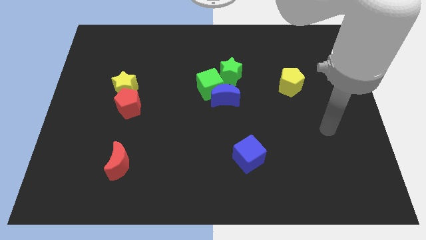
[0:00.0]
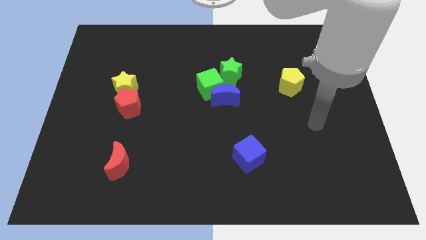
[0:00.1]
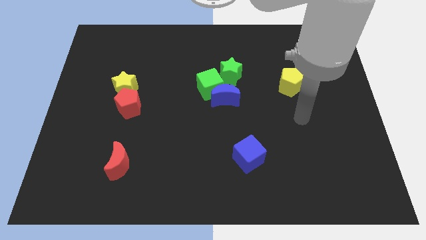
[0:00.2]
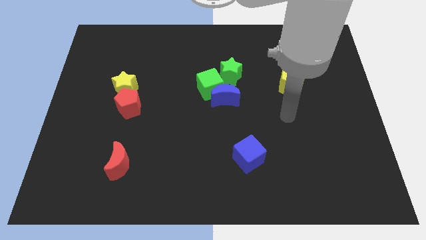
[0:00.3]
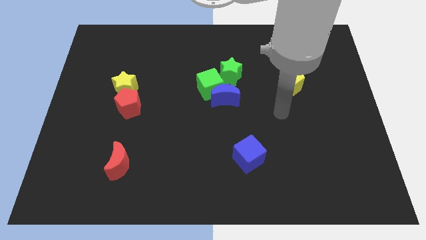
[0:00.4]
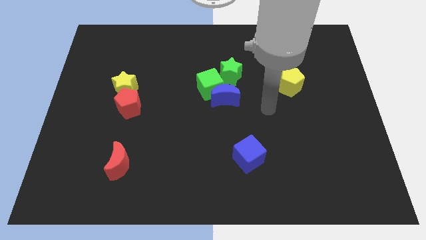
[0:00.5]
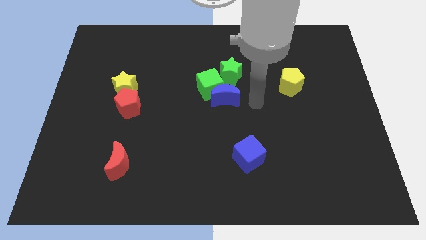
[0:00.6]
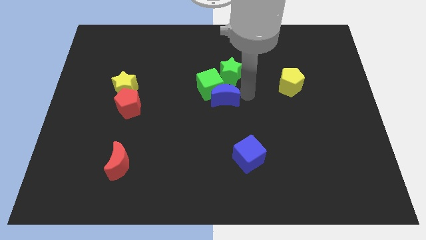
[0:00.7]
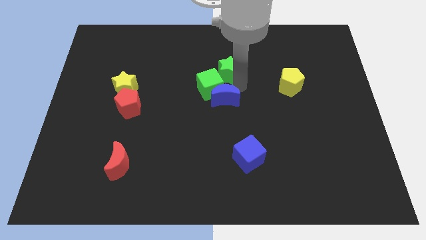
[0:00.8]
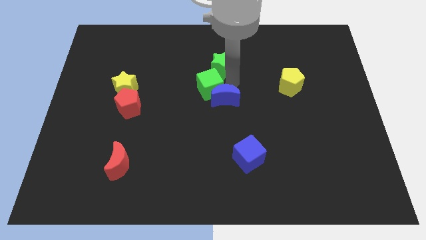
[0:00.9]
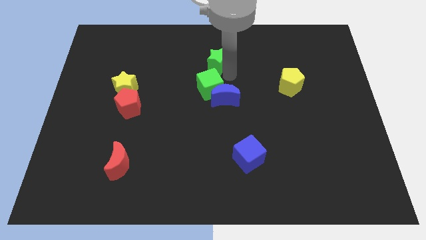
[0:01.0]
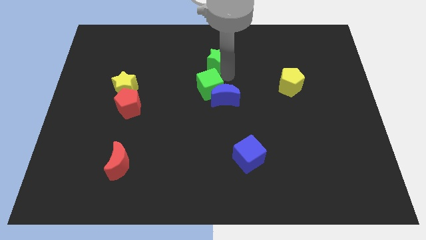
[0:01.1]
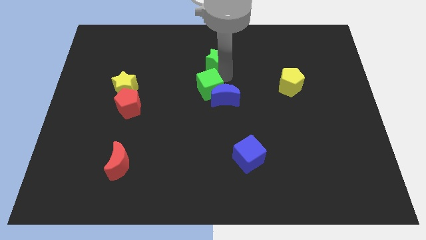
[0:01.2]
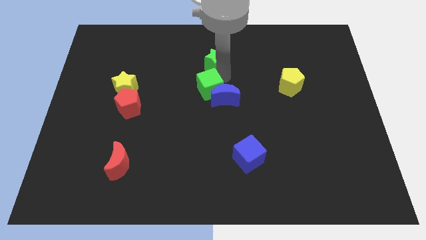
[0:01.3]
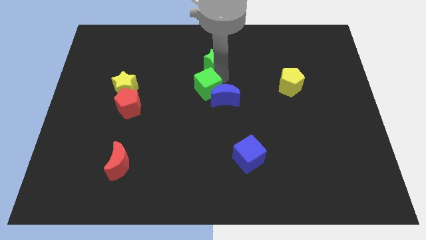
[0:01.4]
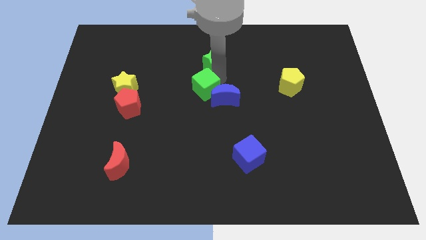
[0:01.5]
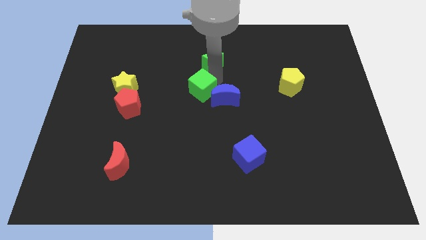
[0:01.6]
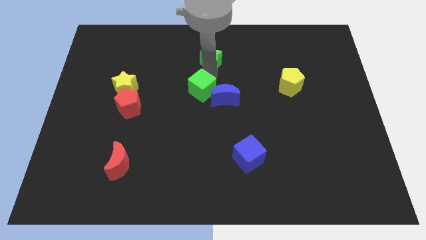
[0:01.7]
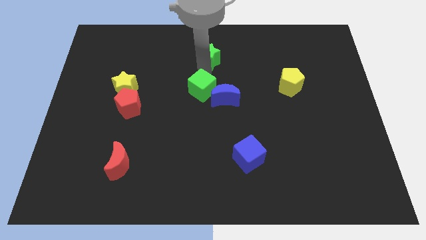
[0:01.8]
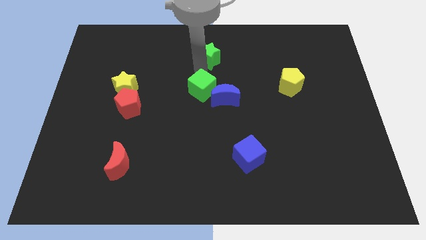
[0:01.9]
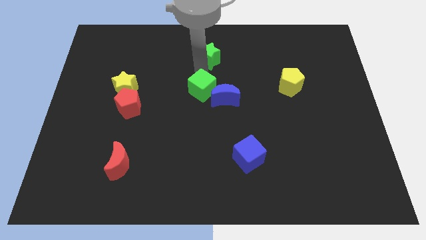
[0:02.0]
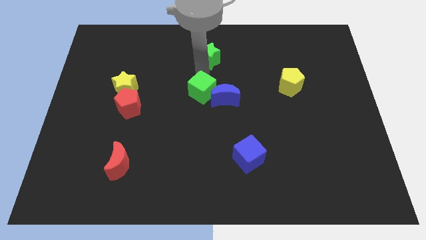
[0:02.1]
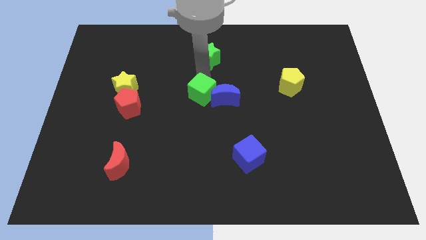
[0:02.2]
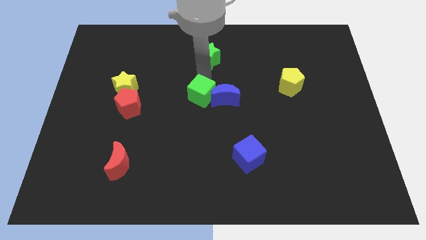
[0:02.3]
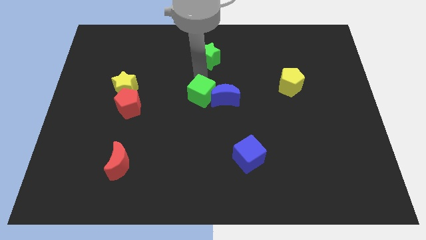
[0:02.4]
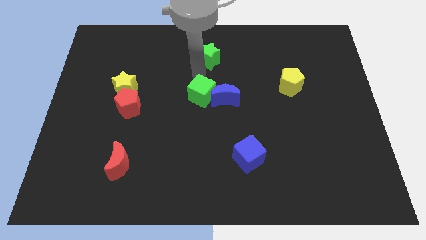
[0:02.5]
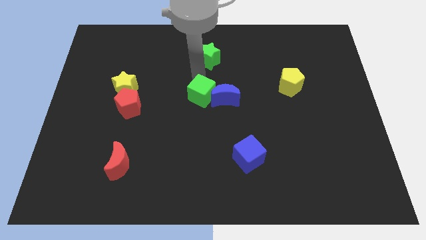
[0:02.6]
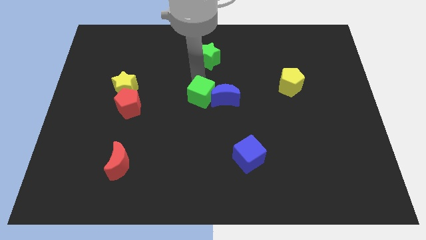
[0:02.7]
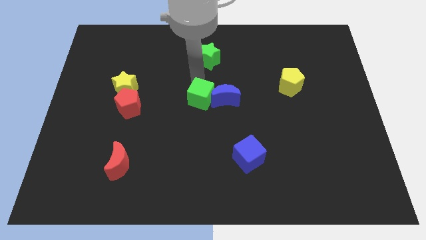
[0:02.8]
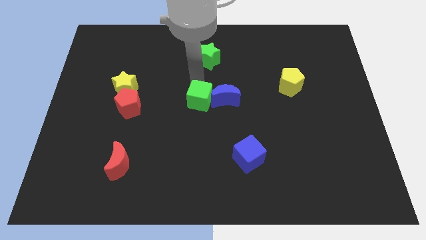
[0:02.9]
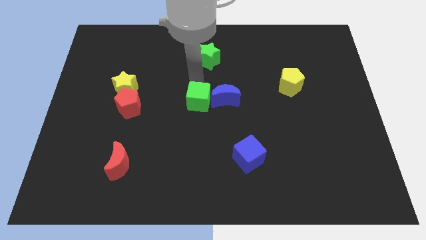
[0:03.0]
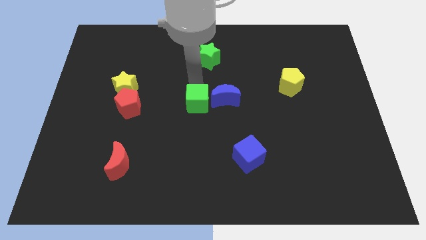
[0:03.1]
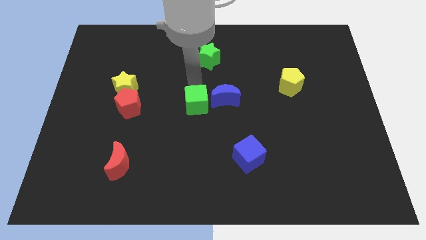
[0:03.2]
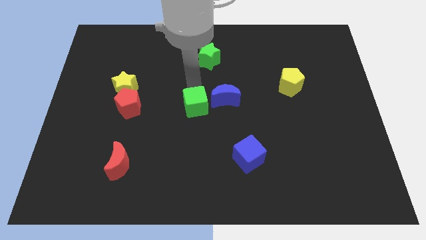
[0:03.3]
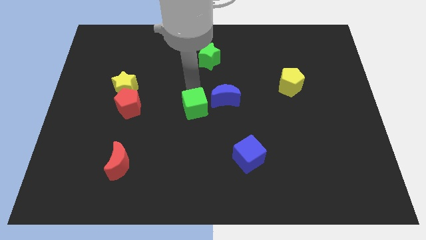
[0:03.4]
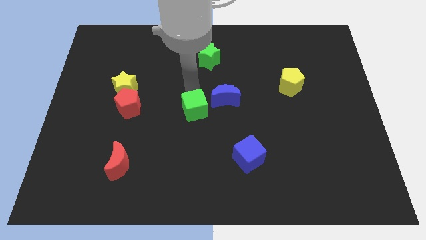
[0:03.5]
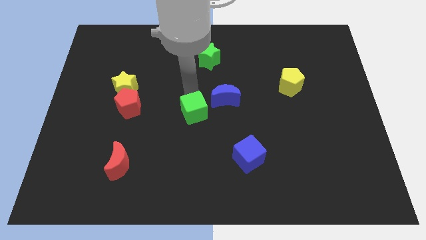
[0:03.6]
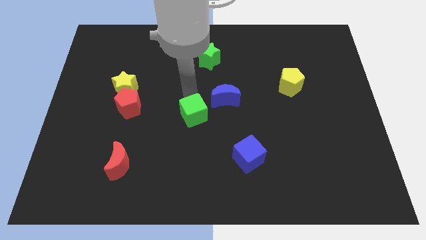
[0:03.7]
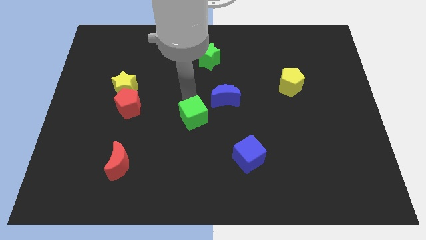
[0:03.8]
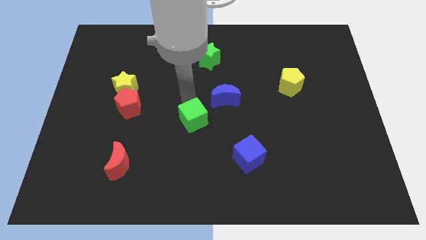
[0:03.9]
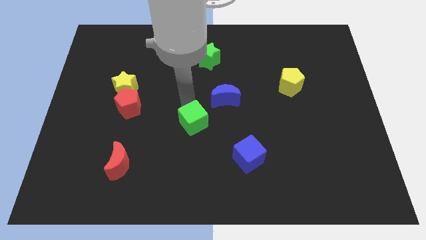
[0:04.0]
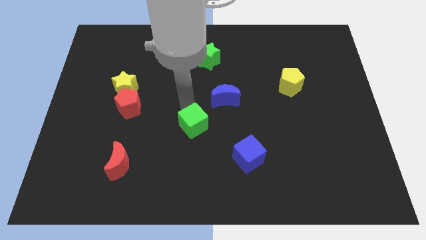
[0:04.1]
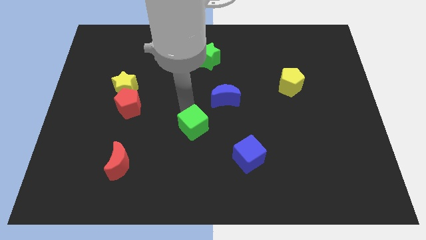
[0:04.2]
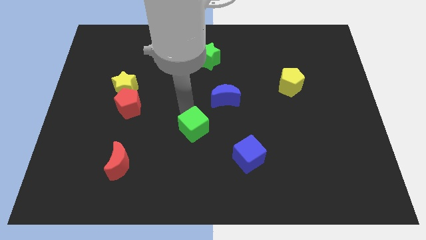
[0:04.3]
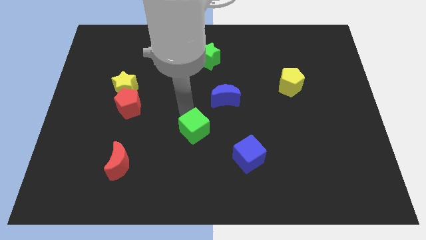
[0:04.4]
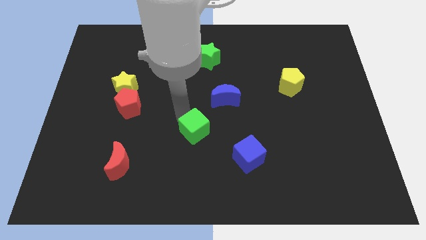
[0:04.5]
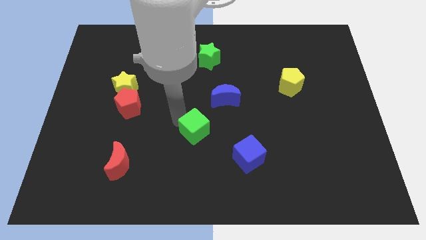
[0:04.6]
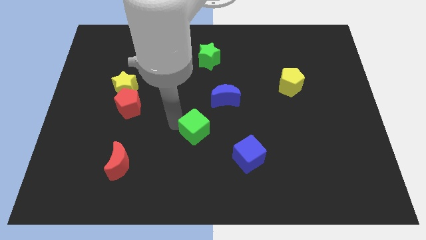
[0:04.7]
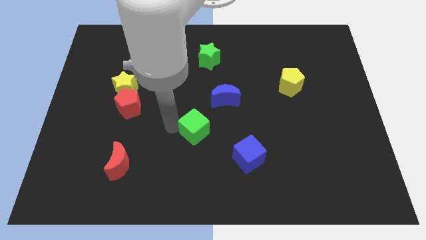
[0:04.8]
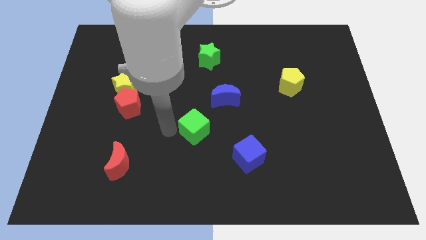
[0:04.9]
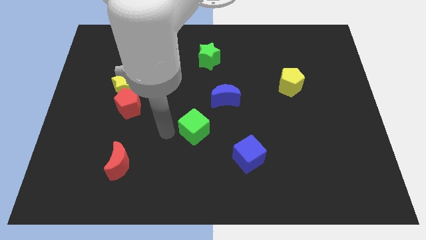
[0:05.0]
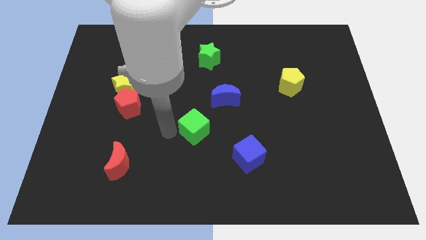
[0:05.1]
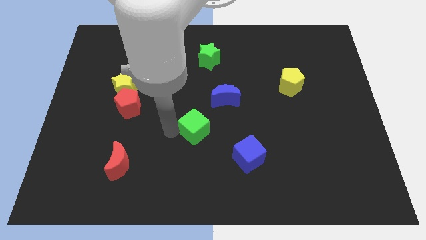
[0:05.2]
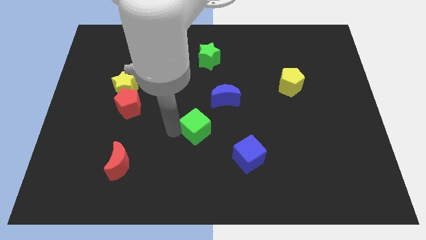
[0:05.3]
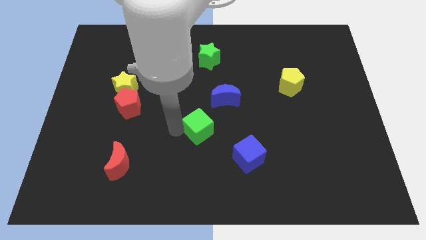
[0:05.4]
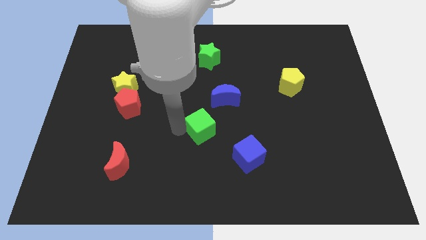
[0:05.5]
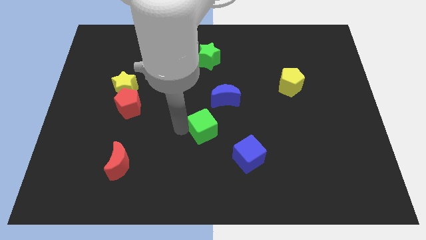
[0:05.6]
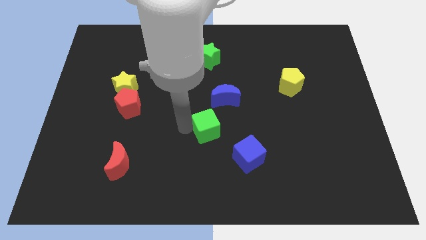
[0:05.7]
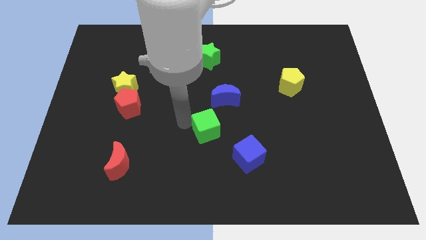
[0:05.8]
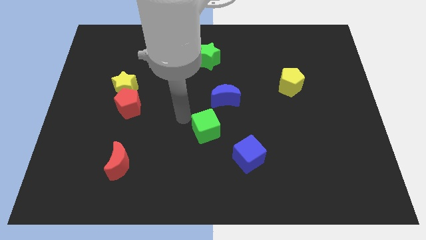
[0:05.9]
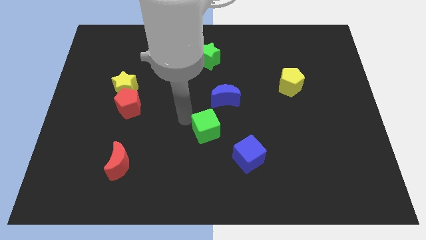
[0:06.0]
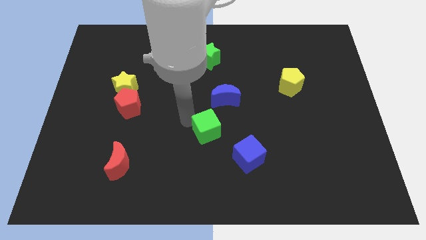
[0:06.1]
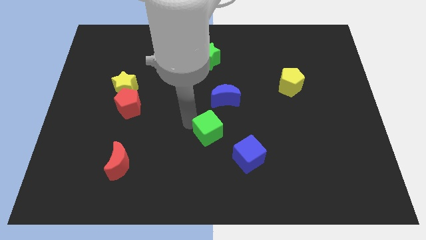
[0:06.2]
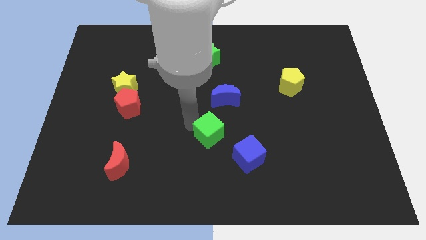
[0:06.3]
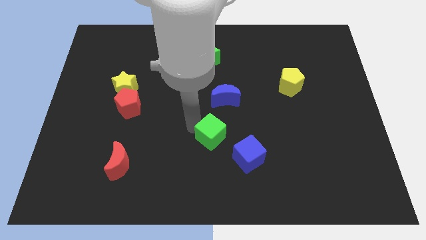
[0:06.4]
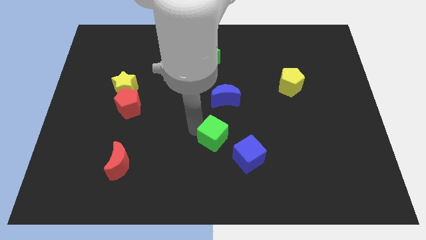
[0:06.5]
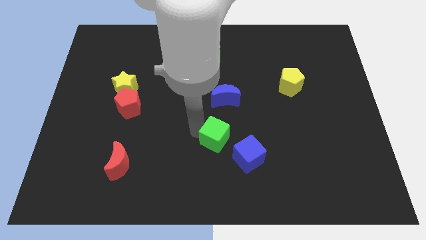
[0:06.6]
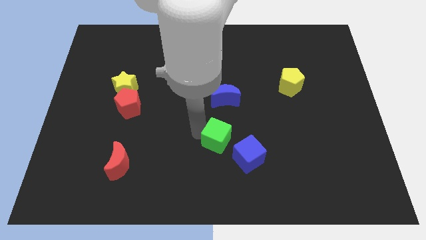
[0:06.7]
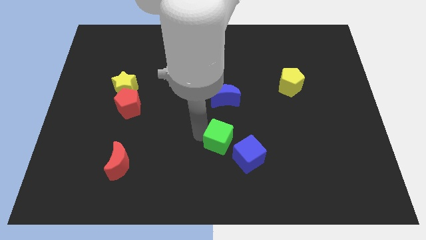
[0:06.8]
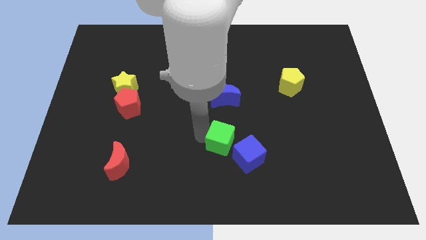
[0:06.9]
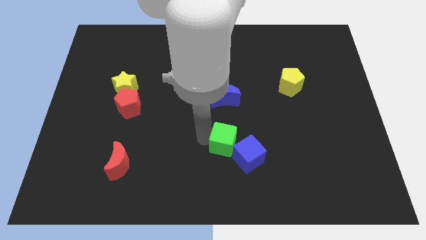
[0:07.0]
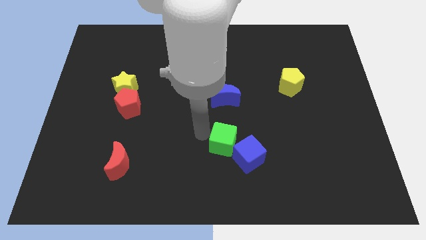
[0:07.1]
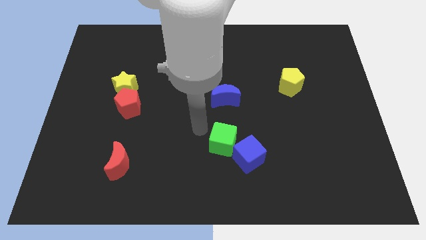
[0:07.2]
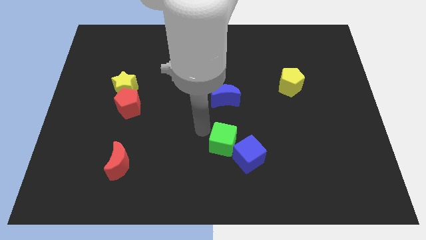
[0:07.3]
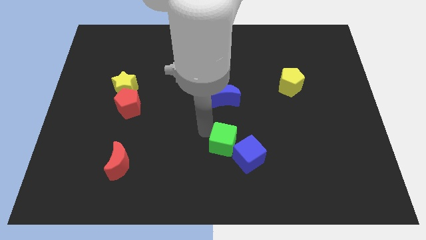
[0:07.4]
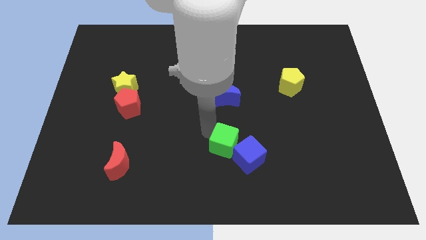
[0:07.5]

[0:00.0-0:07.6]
put the green cube next to the blue cube

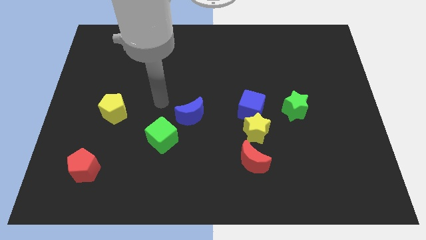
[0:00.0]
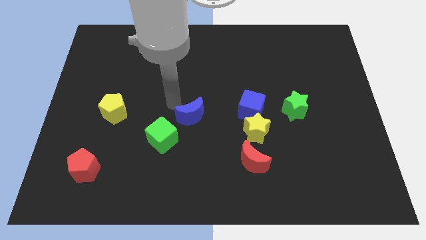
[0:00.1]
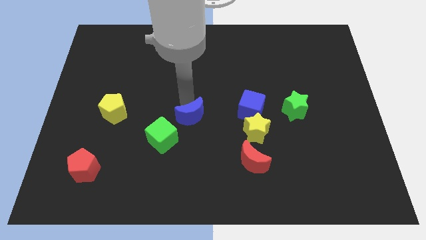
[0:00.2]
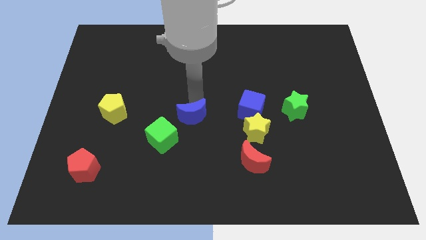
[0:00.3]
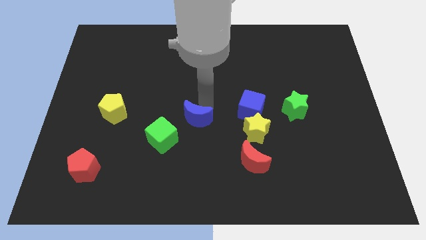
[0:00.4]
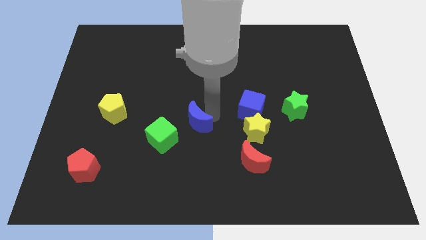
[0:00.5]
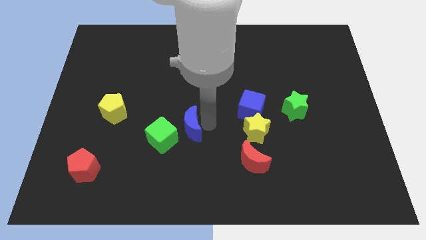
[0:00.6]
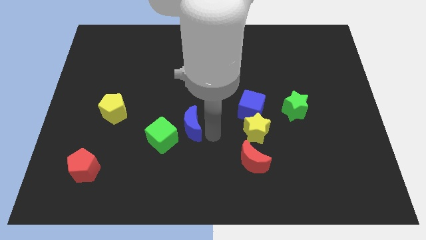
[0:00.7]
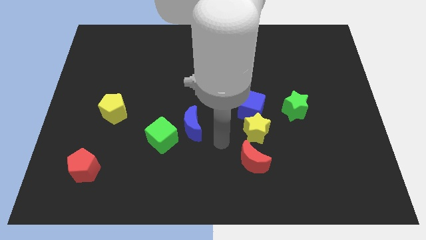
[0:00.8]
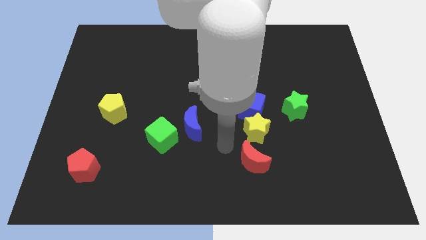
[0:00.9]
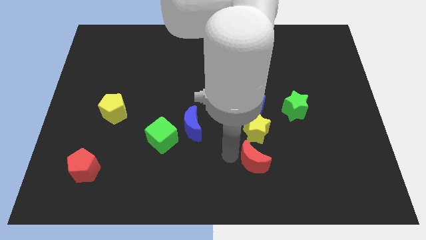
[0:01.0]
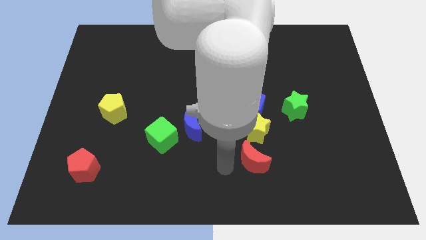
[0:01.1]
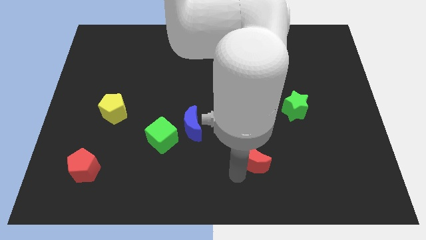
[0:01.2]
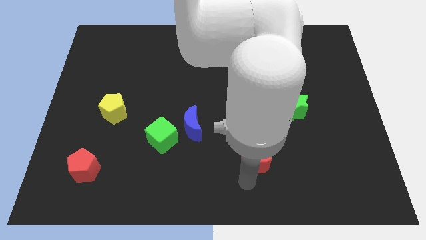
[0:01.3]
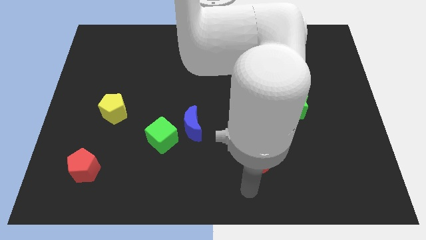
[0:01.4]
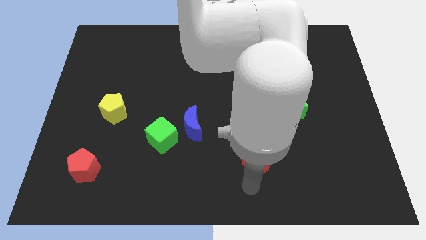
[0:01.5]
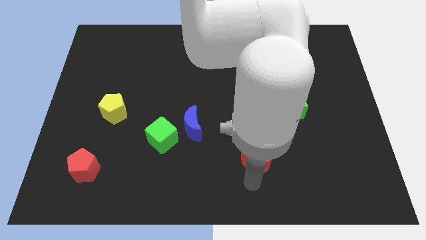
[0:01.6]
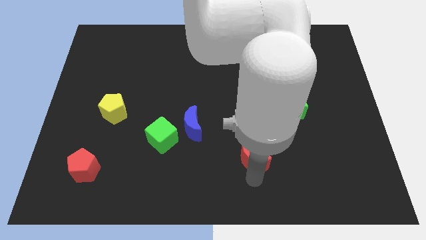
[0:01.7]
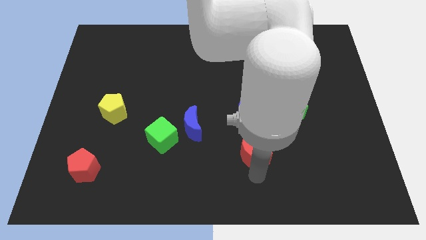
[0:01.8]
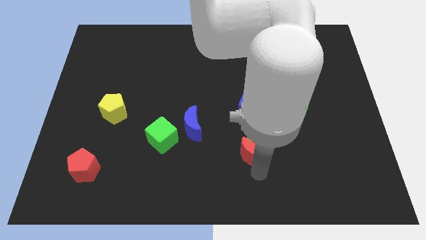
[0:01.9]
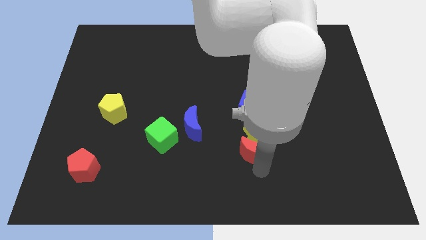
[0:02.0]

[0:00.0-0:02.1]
put the red moon to the yellow star
